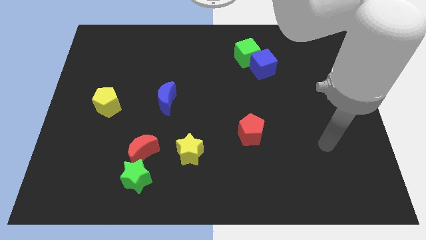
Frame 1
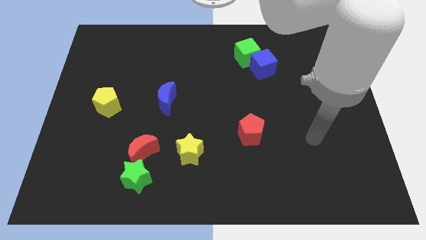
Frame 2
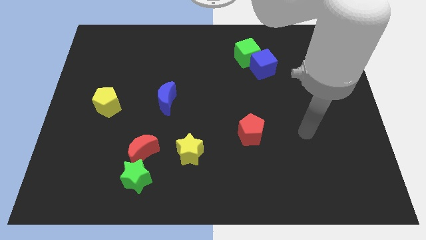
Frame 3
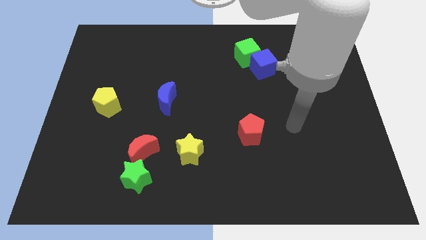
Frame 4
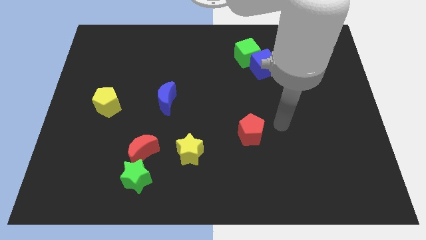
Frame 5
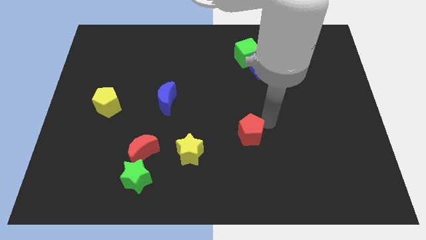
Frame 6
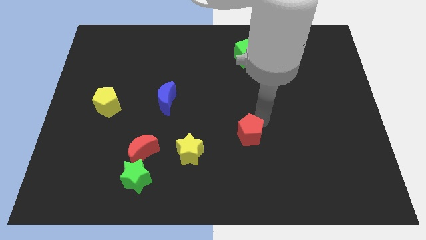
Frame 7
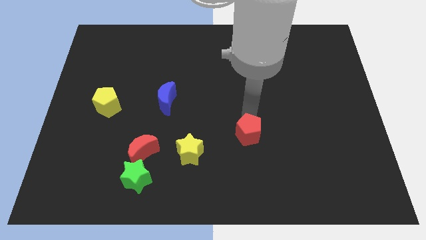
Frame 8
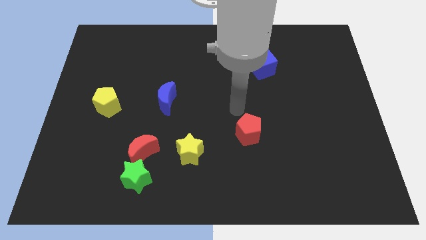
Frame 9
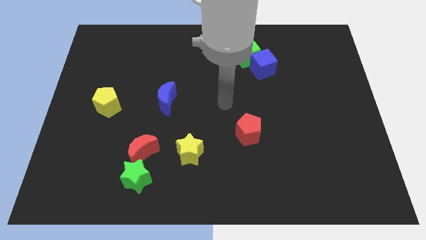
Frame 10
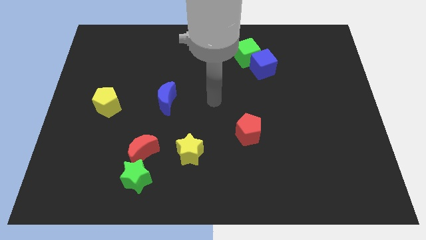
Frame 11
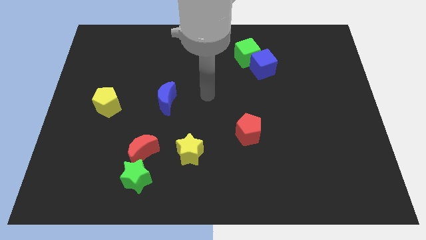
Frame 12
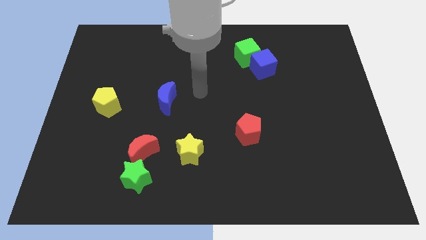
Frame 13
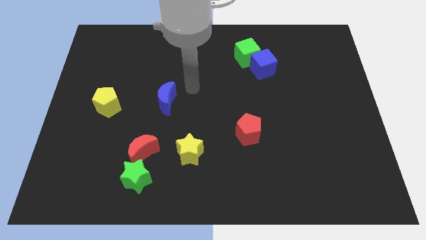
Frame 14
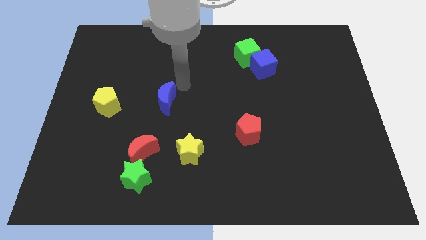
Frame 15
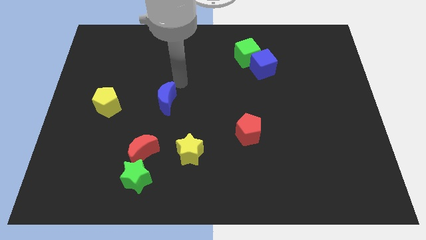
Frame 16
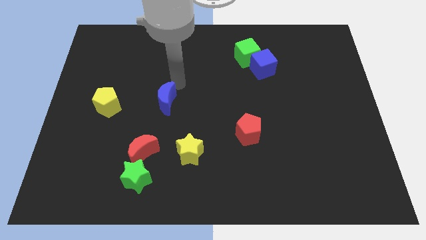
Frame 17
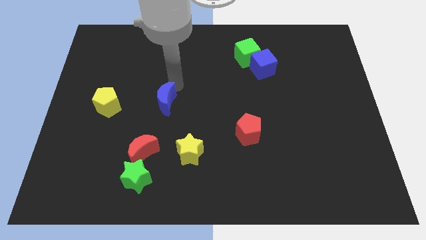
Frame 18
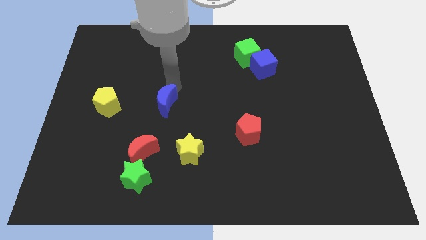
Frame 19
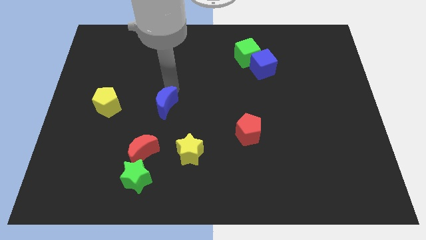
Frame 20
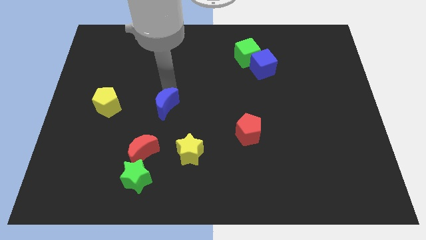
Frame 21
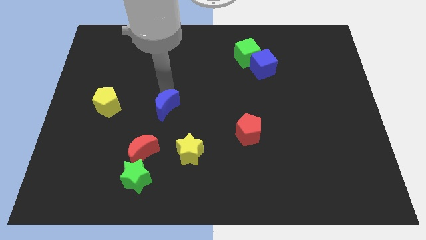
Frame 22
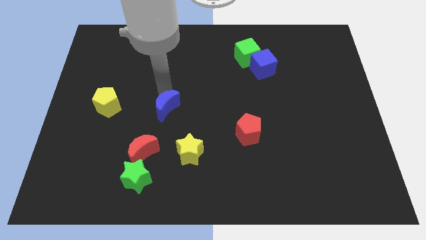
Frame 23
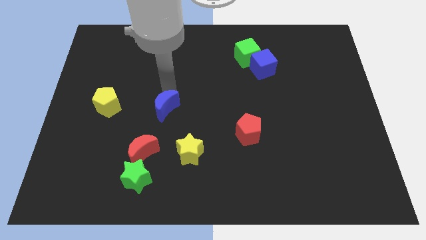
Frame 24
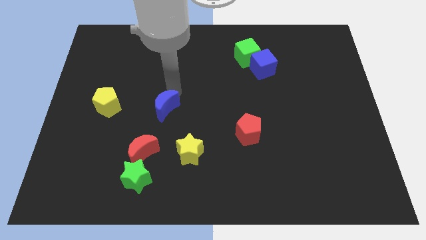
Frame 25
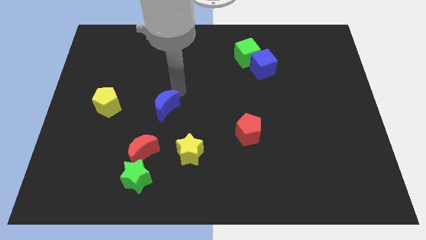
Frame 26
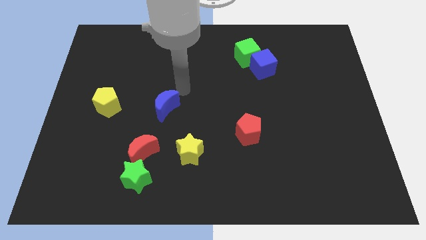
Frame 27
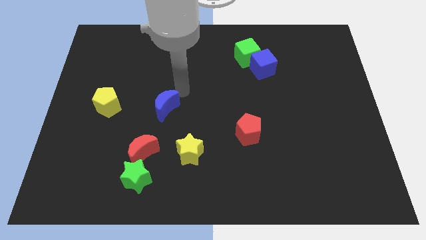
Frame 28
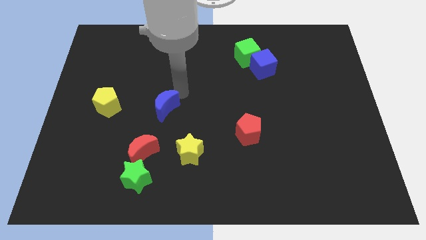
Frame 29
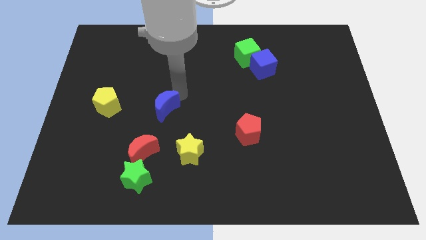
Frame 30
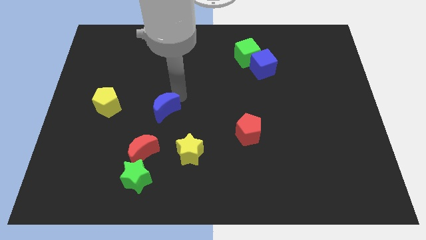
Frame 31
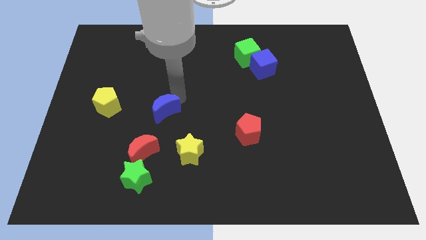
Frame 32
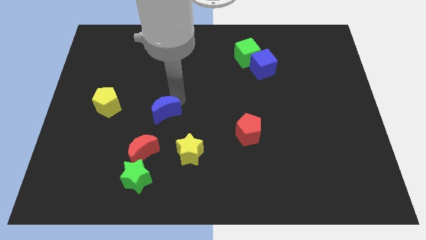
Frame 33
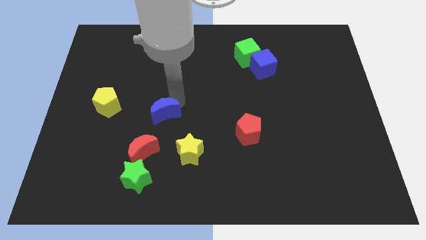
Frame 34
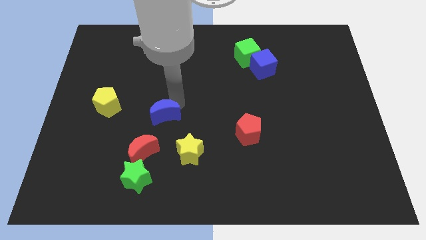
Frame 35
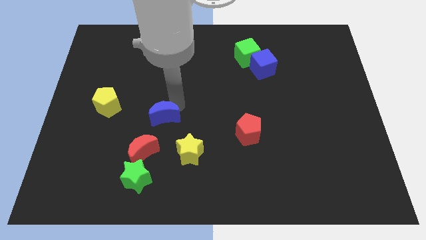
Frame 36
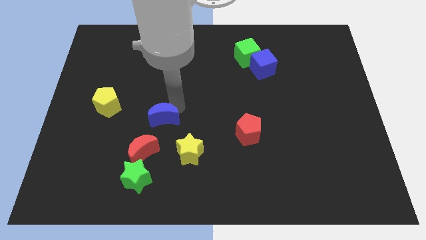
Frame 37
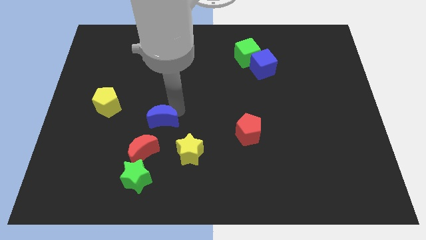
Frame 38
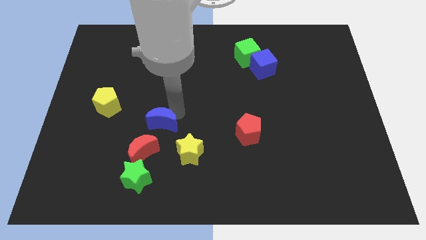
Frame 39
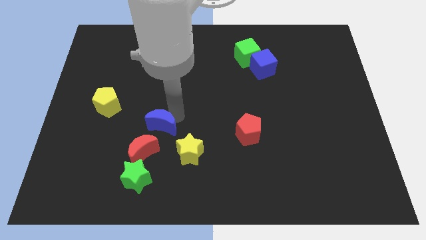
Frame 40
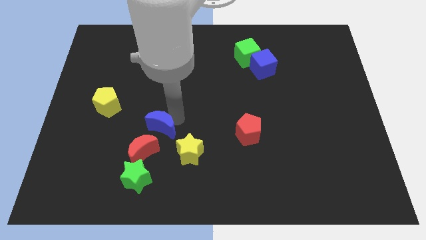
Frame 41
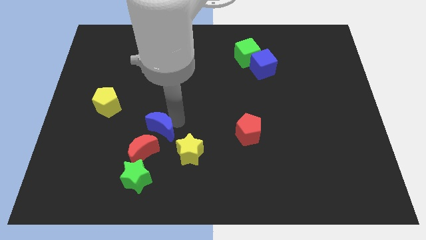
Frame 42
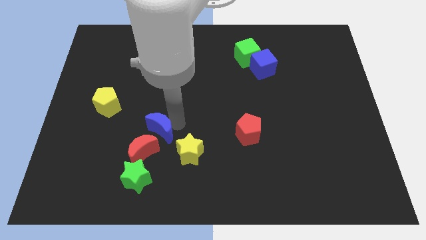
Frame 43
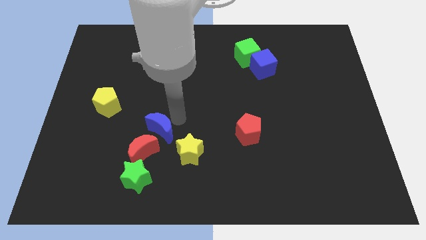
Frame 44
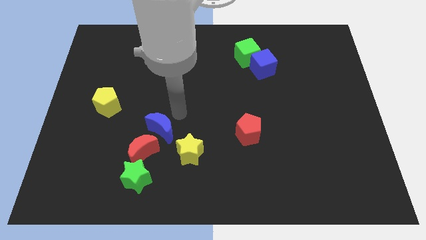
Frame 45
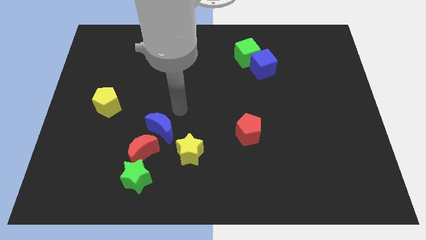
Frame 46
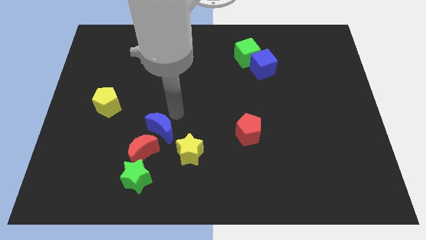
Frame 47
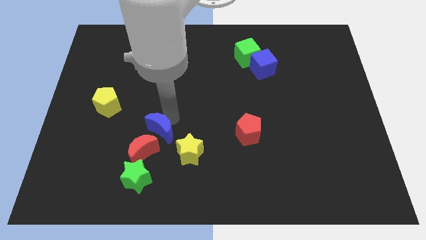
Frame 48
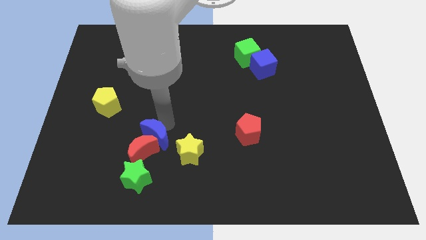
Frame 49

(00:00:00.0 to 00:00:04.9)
slide the blue moon close to the red moon

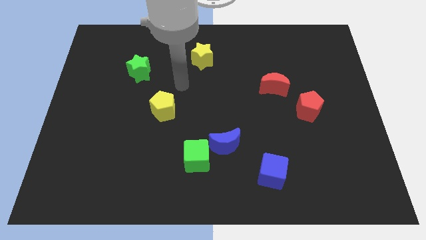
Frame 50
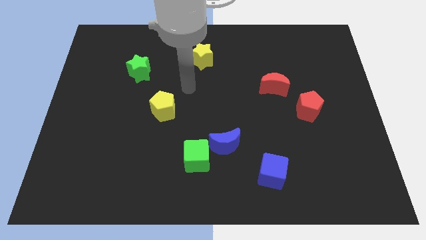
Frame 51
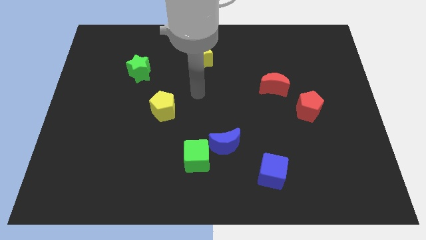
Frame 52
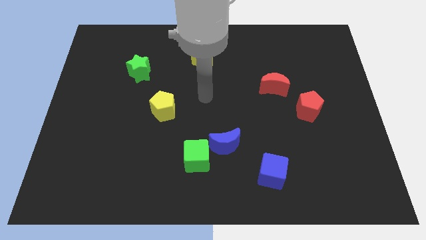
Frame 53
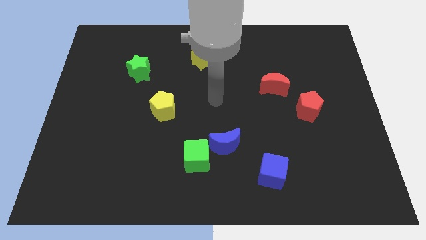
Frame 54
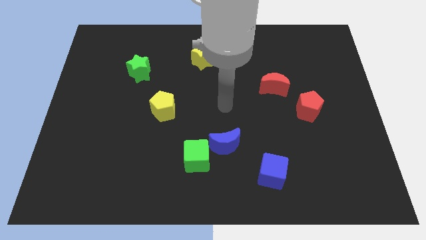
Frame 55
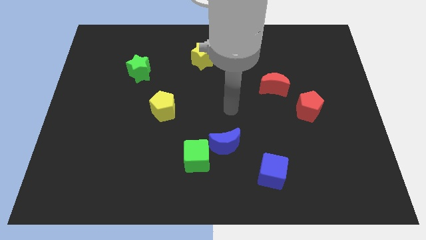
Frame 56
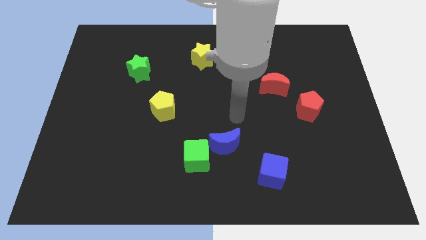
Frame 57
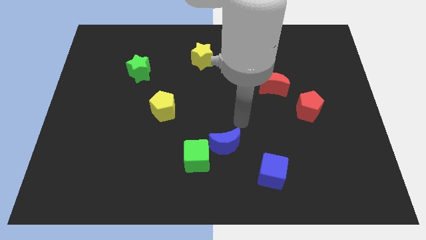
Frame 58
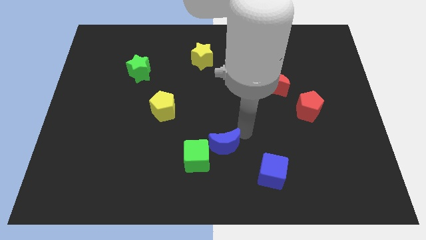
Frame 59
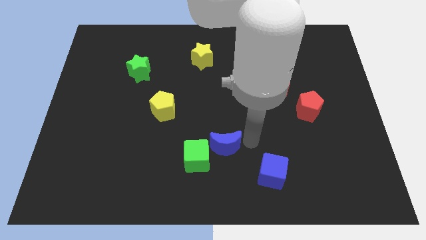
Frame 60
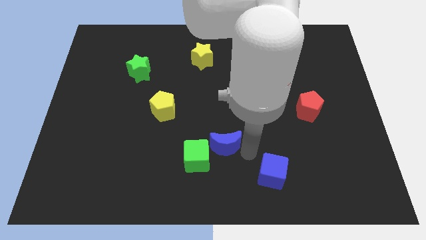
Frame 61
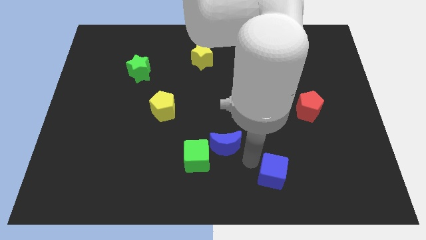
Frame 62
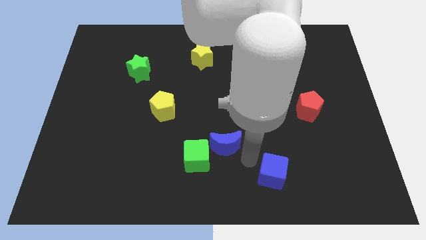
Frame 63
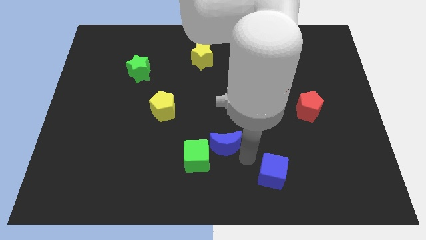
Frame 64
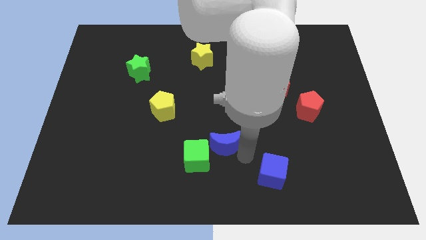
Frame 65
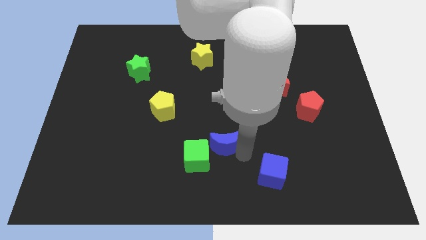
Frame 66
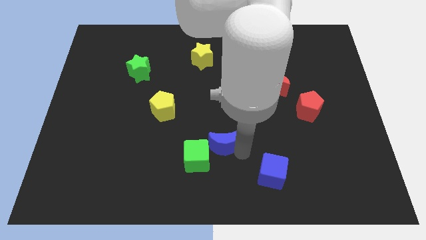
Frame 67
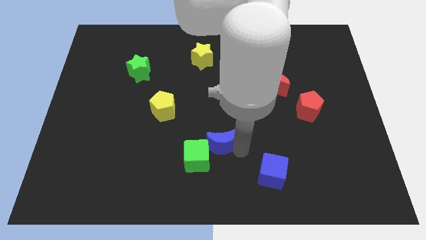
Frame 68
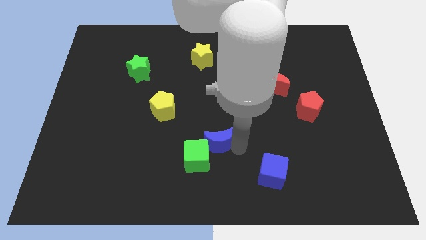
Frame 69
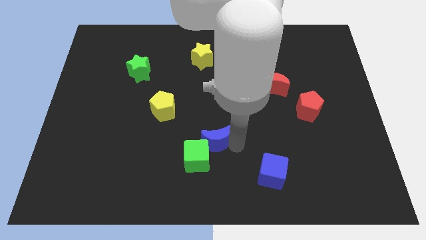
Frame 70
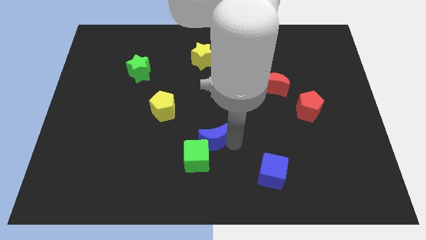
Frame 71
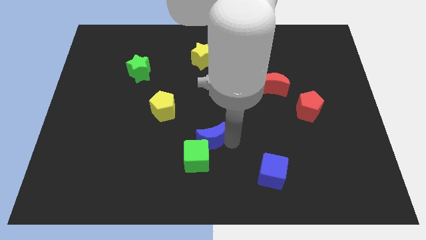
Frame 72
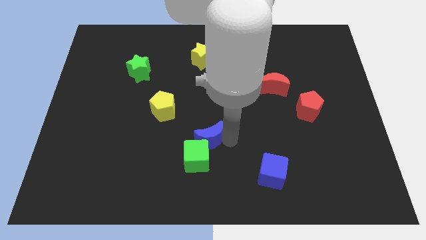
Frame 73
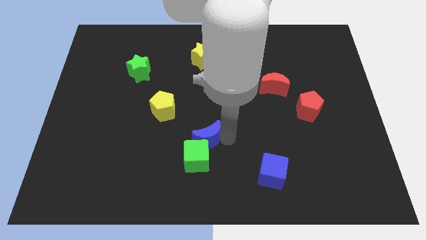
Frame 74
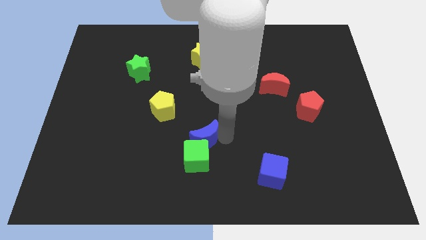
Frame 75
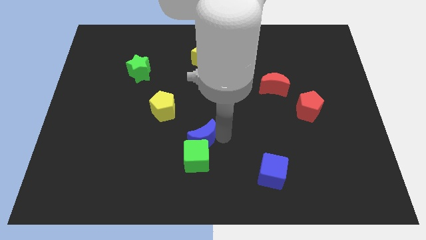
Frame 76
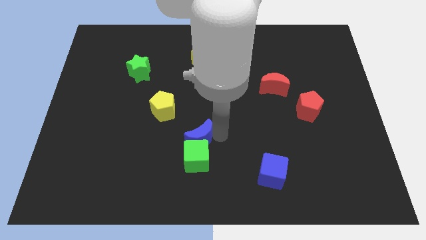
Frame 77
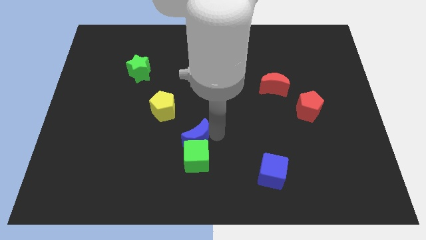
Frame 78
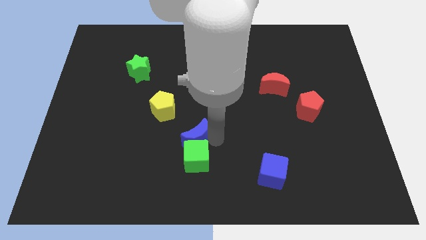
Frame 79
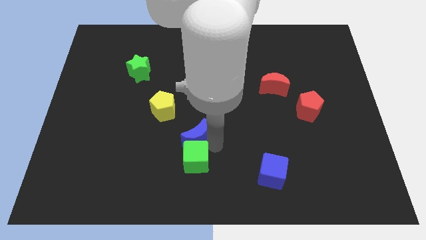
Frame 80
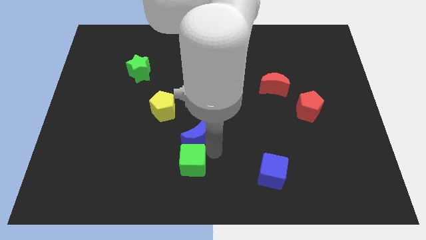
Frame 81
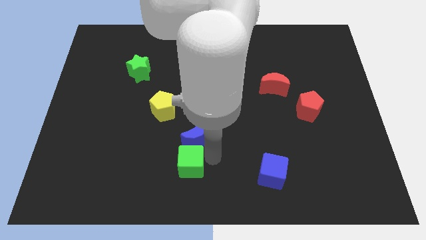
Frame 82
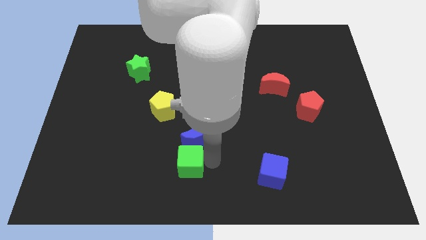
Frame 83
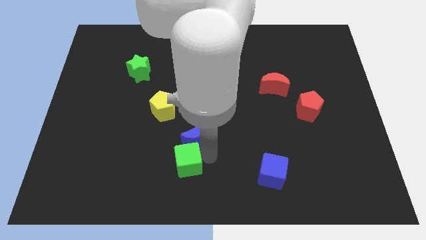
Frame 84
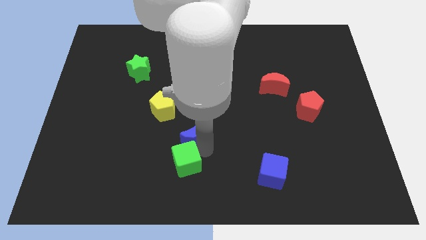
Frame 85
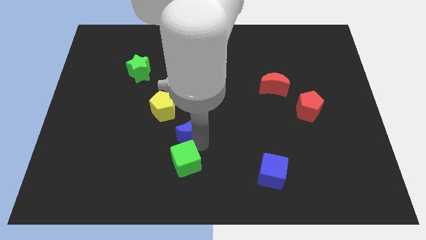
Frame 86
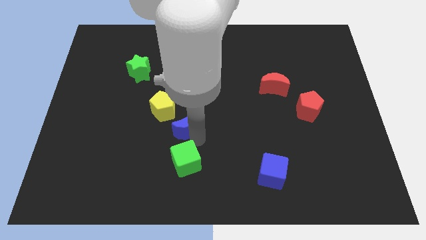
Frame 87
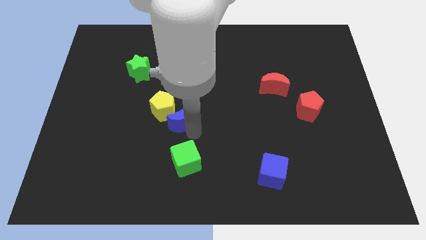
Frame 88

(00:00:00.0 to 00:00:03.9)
put the blue moon to the yellow pentagon
